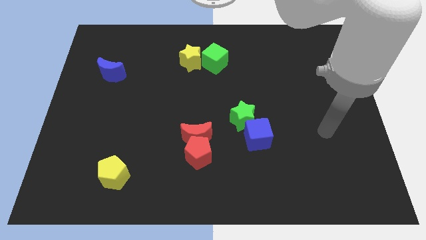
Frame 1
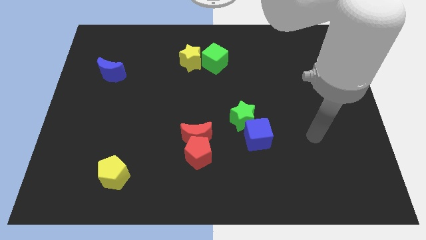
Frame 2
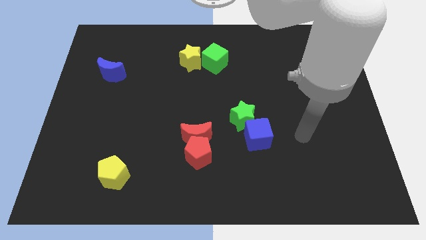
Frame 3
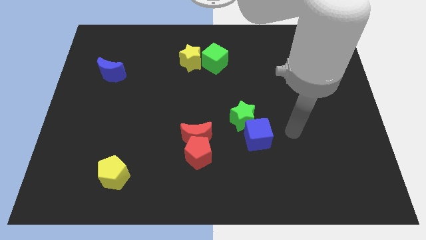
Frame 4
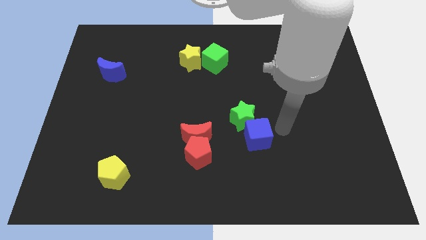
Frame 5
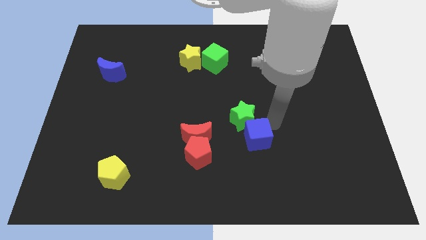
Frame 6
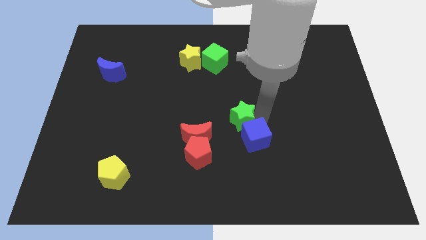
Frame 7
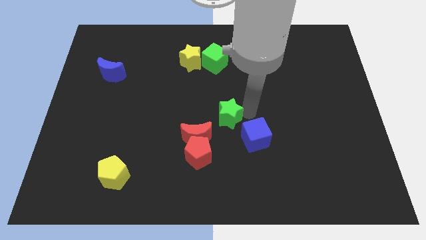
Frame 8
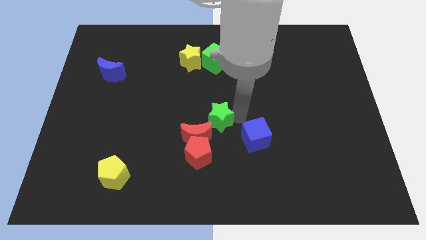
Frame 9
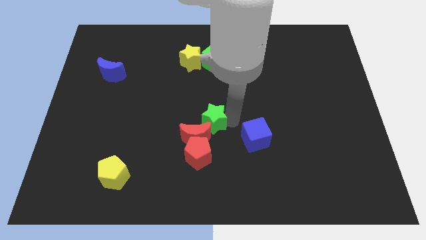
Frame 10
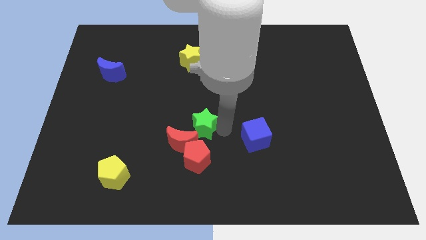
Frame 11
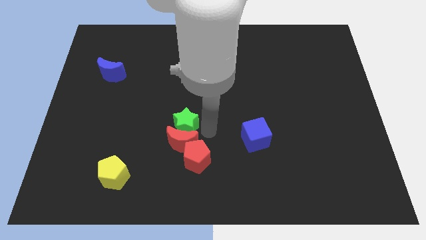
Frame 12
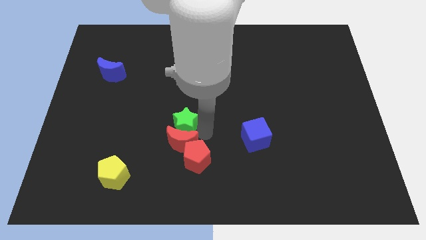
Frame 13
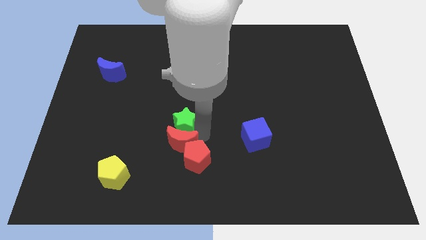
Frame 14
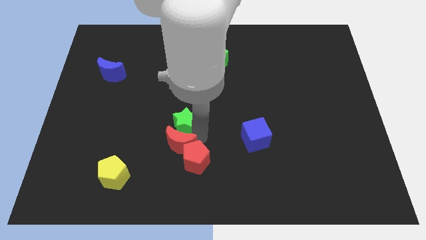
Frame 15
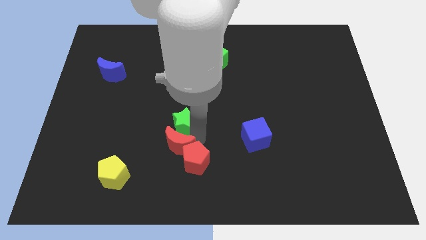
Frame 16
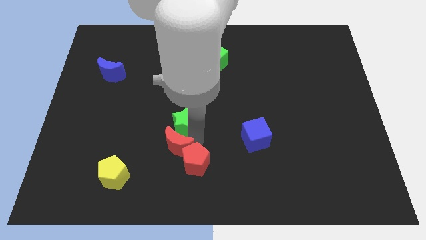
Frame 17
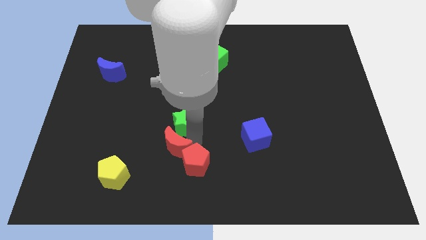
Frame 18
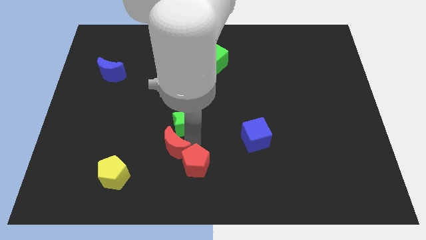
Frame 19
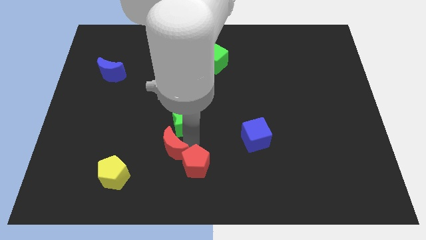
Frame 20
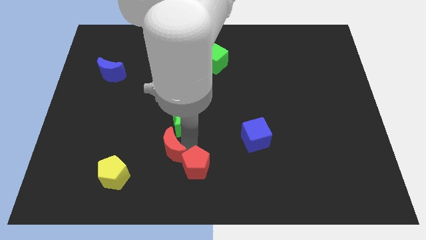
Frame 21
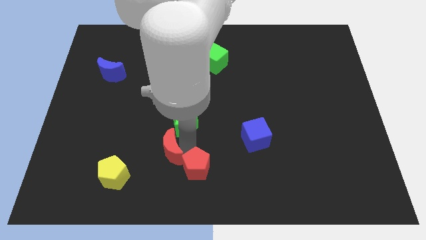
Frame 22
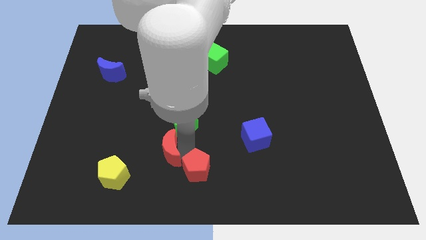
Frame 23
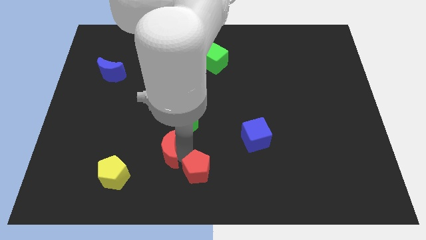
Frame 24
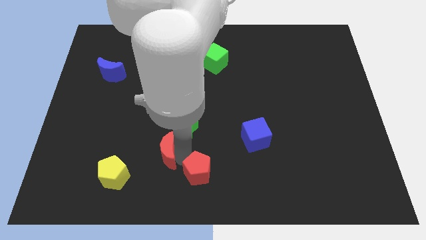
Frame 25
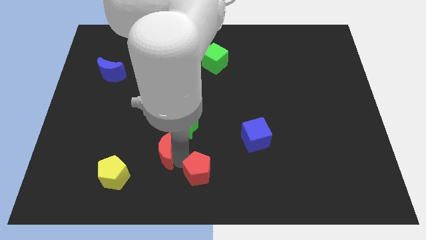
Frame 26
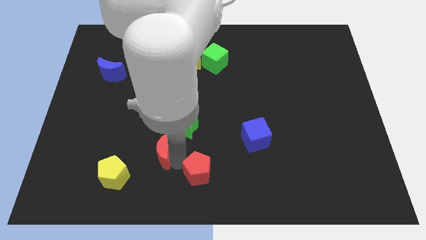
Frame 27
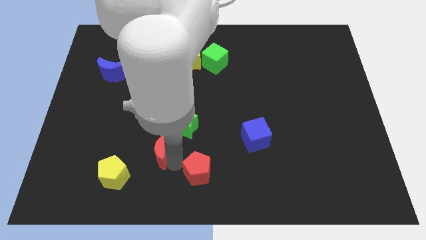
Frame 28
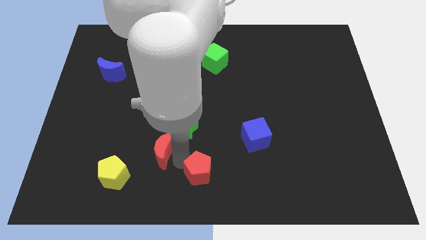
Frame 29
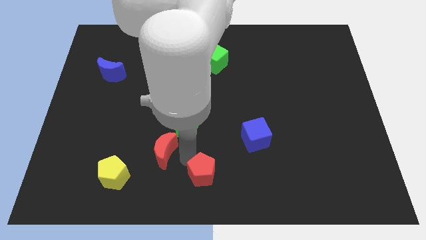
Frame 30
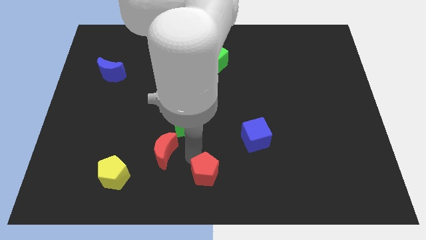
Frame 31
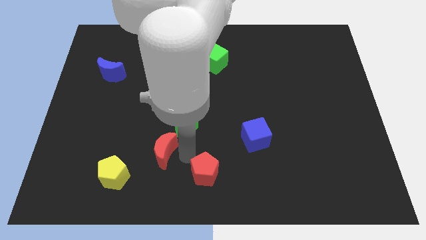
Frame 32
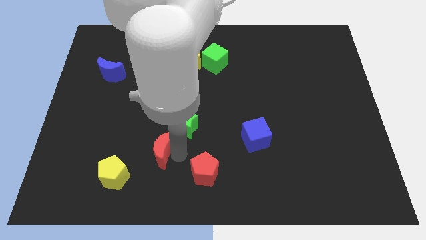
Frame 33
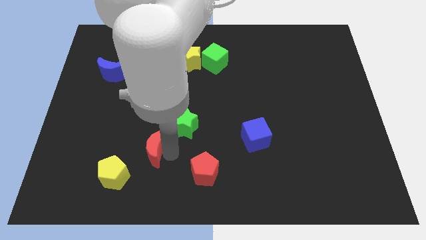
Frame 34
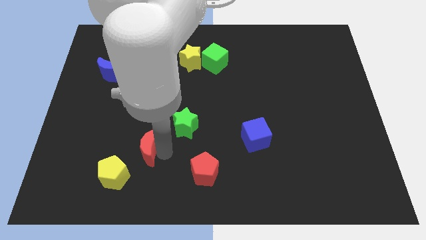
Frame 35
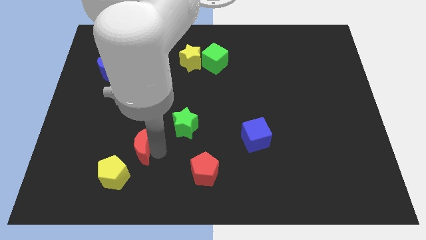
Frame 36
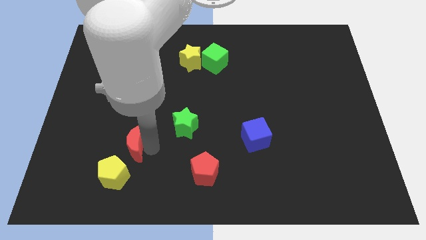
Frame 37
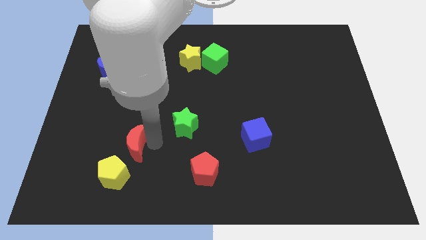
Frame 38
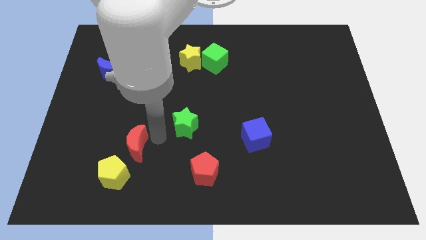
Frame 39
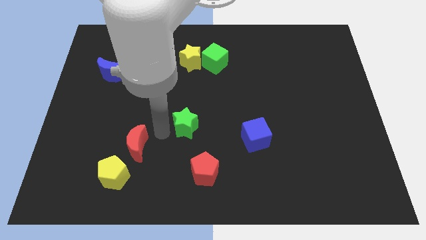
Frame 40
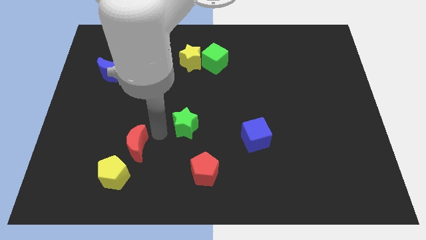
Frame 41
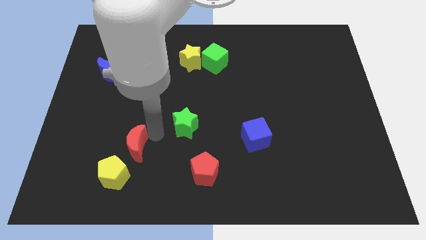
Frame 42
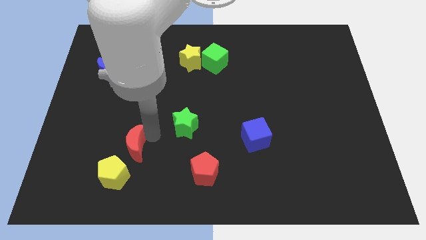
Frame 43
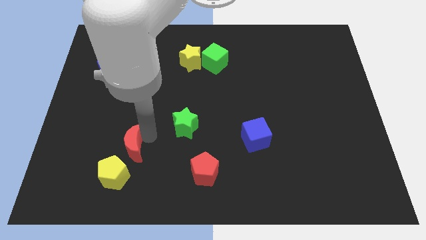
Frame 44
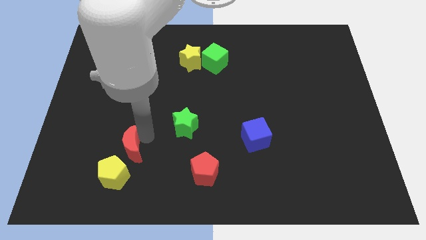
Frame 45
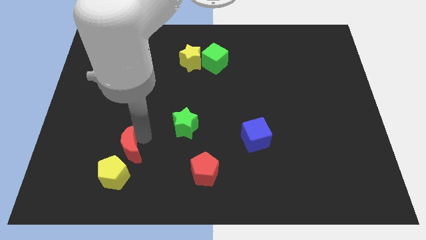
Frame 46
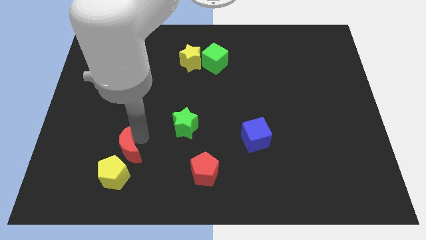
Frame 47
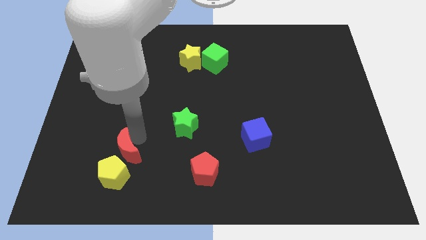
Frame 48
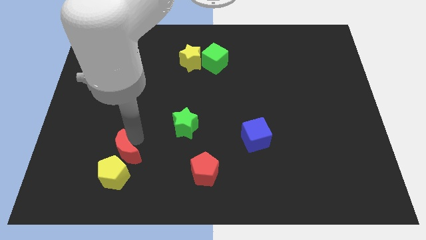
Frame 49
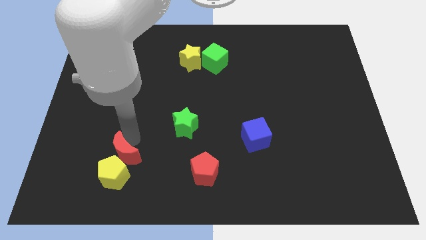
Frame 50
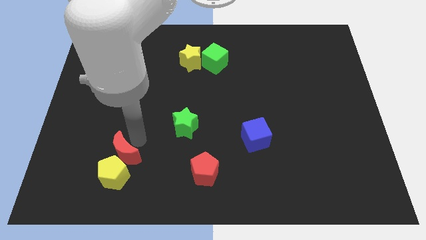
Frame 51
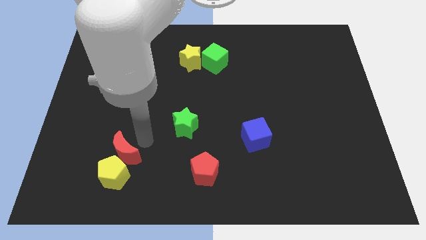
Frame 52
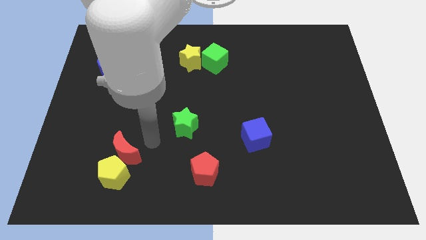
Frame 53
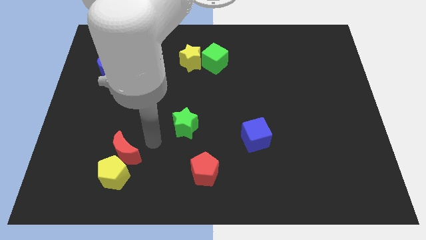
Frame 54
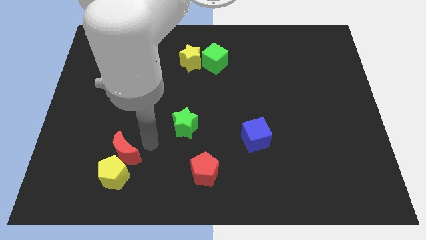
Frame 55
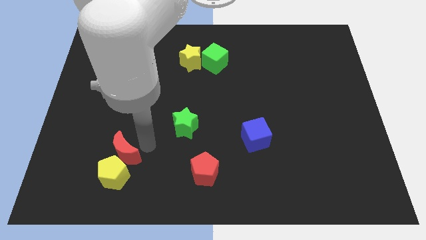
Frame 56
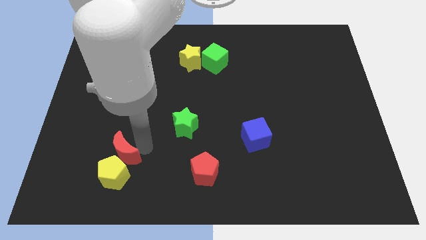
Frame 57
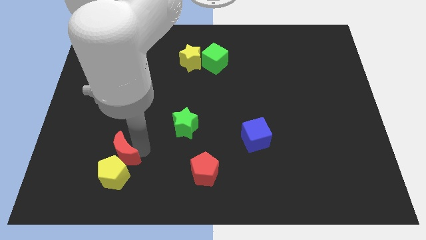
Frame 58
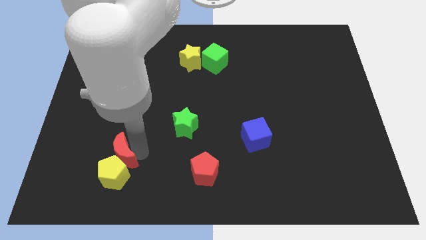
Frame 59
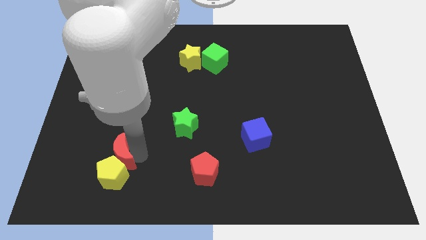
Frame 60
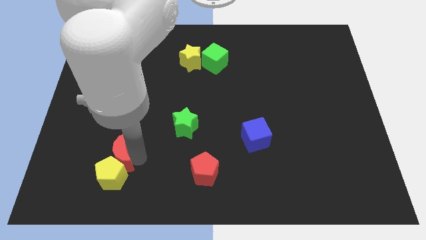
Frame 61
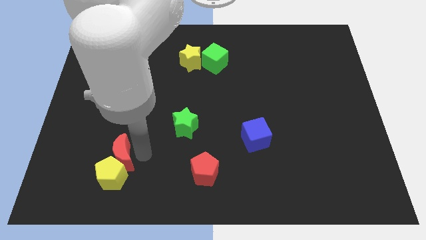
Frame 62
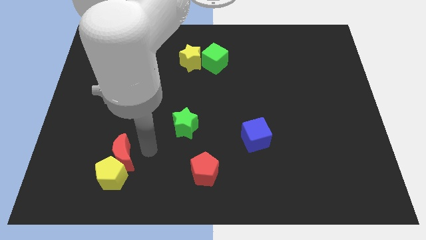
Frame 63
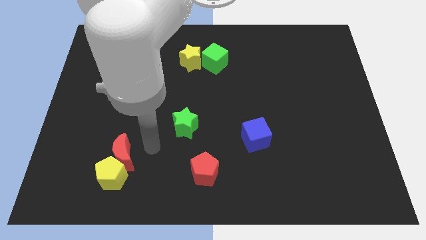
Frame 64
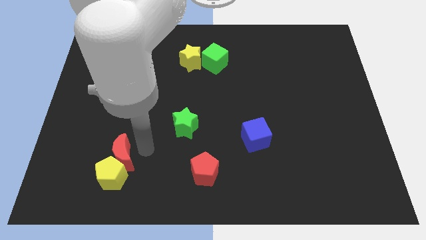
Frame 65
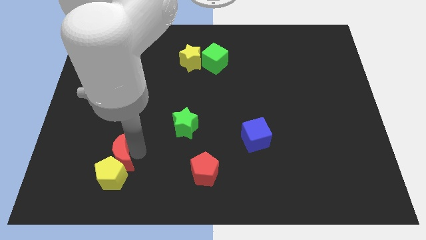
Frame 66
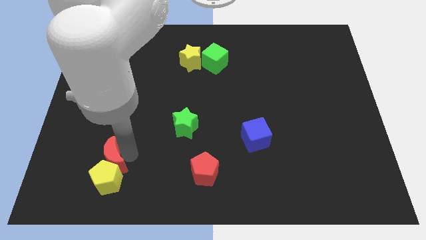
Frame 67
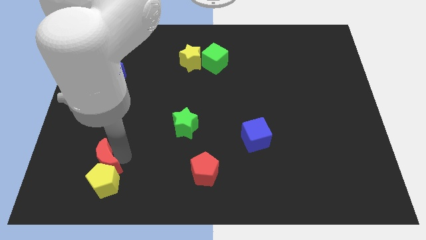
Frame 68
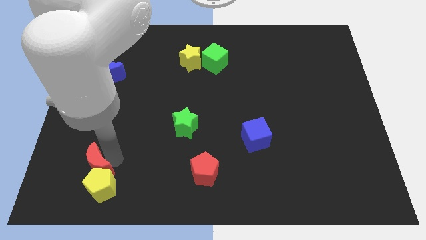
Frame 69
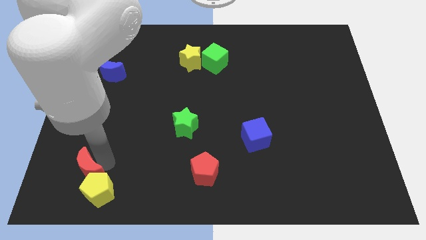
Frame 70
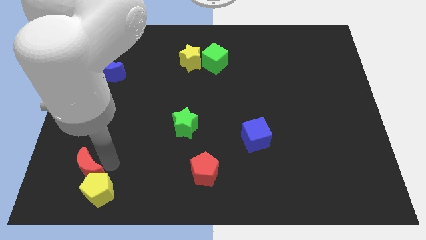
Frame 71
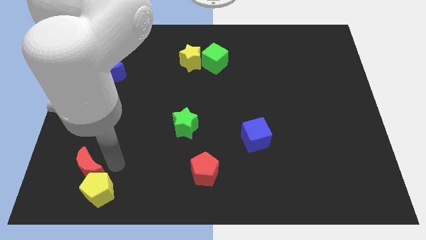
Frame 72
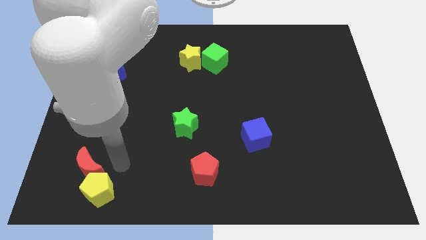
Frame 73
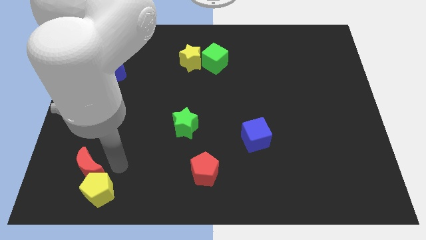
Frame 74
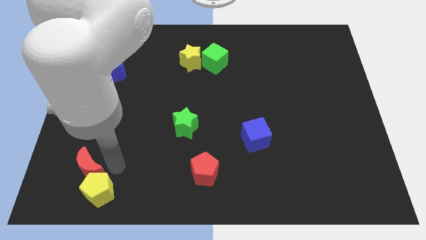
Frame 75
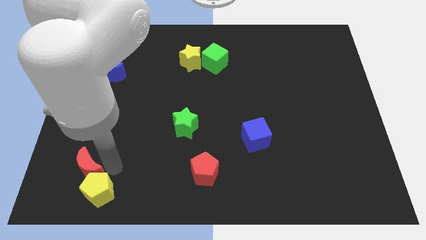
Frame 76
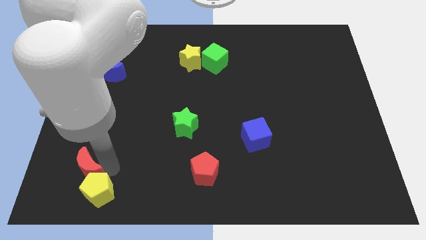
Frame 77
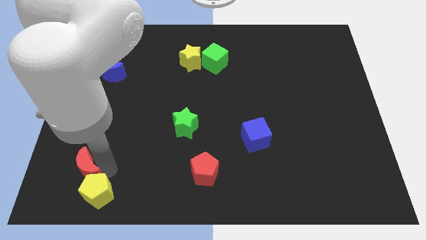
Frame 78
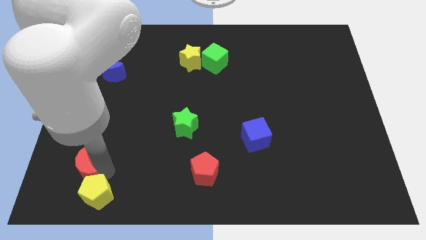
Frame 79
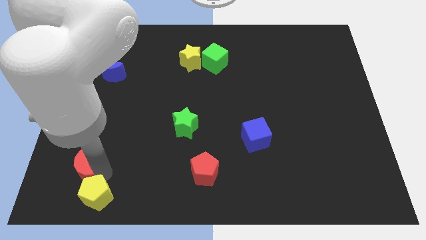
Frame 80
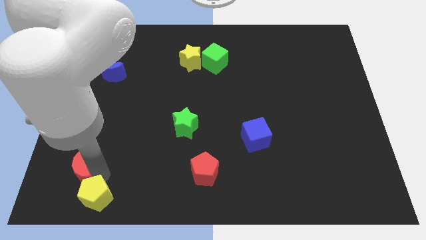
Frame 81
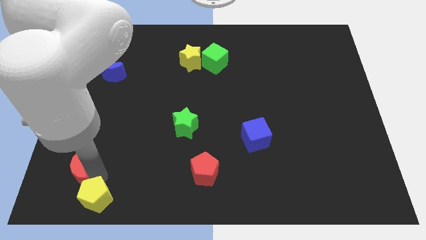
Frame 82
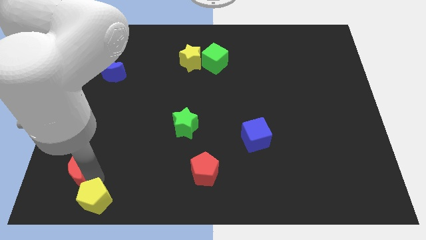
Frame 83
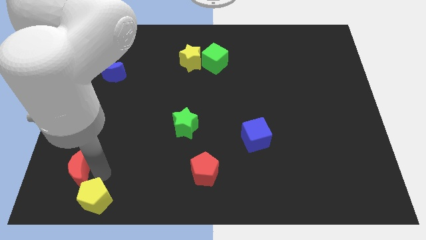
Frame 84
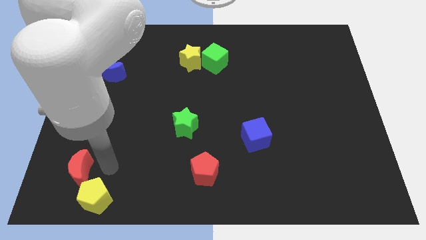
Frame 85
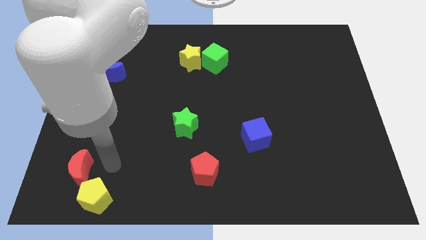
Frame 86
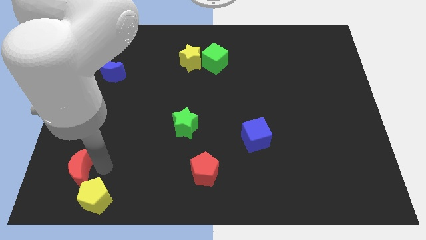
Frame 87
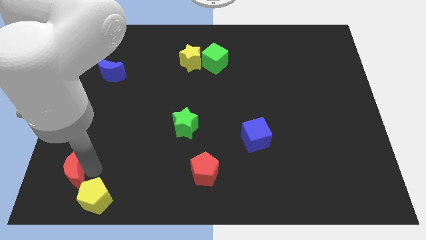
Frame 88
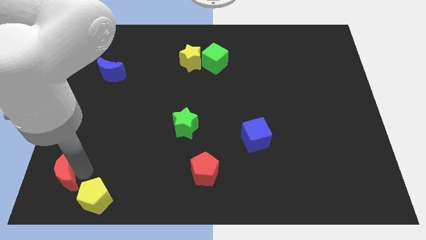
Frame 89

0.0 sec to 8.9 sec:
move the red moon to the bottom left corner
